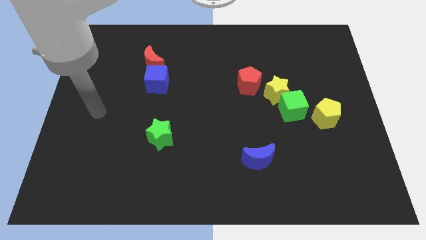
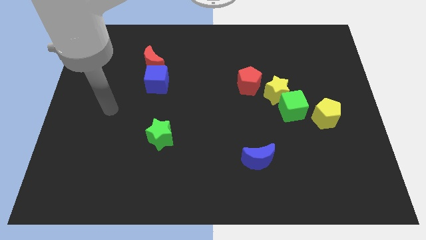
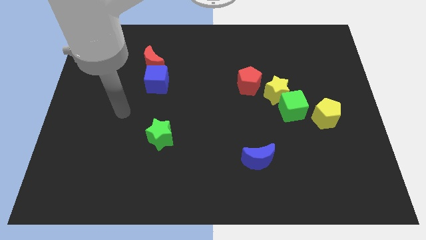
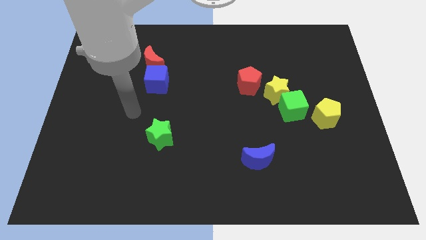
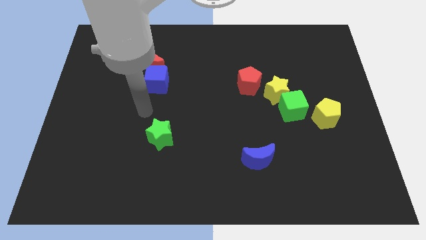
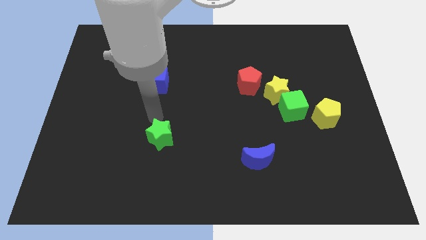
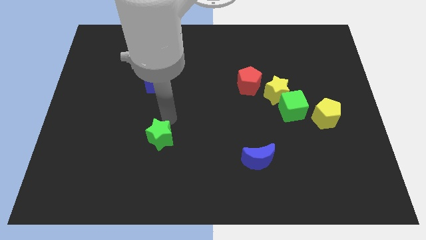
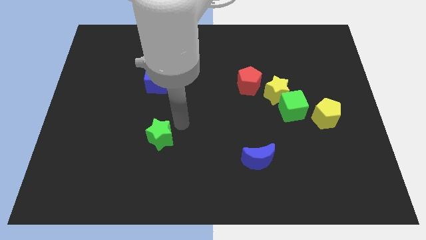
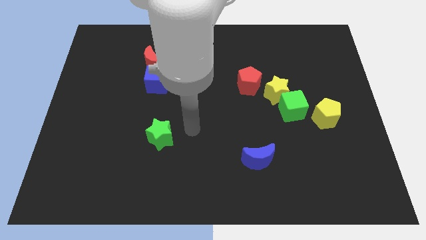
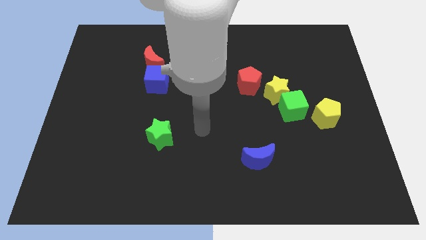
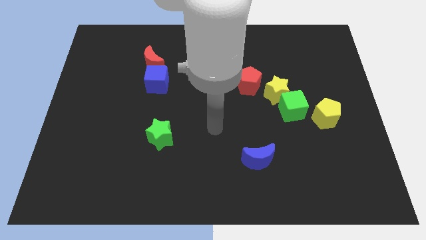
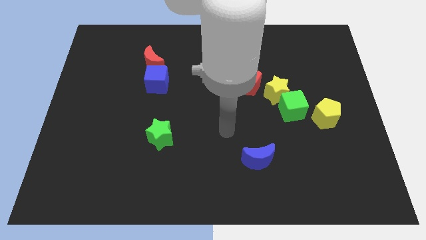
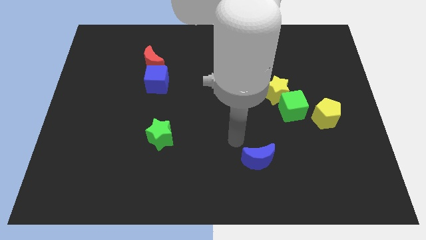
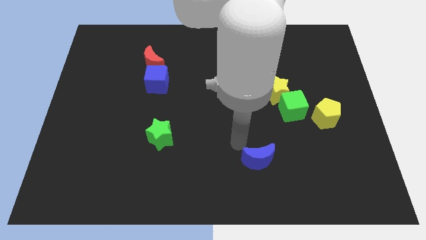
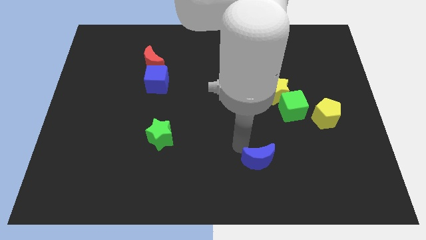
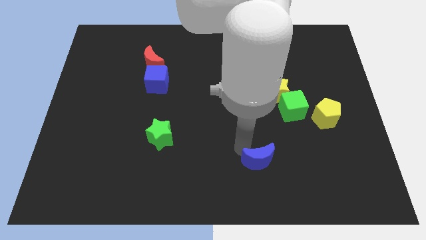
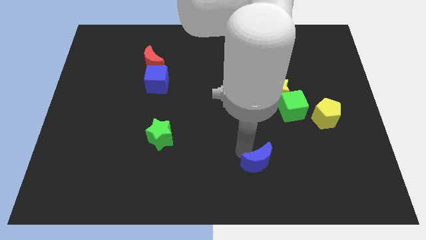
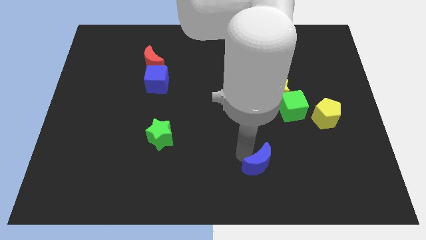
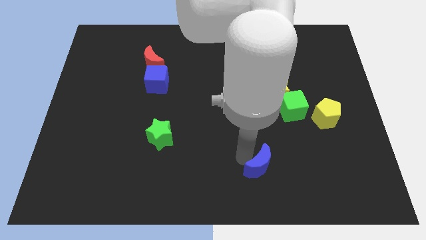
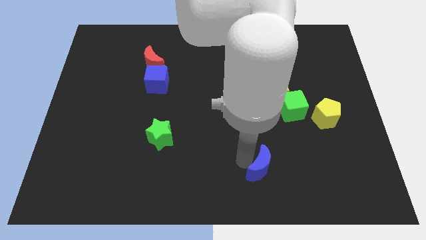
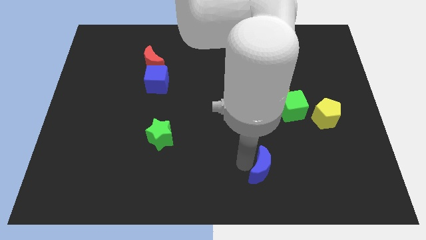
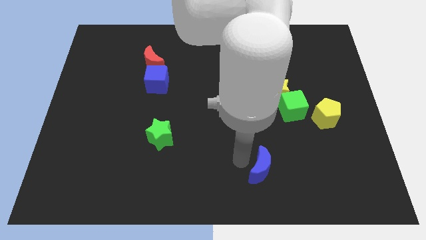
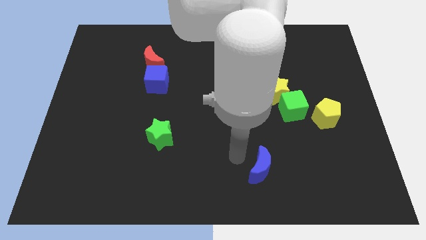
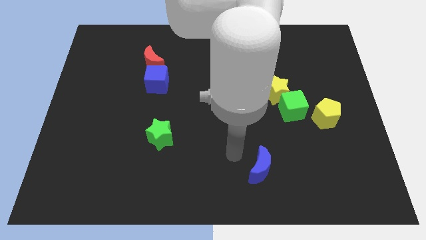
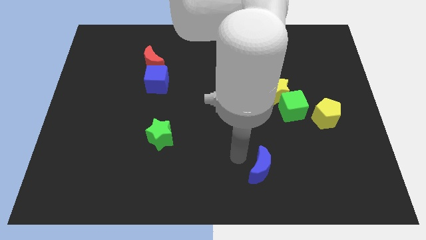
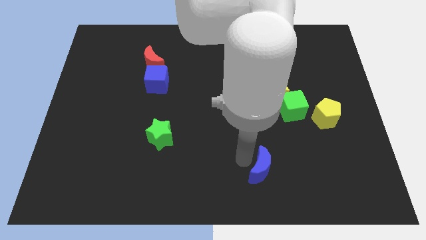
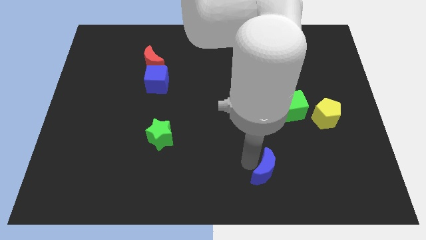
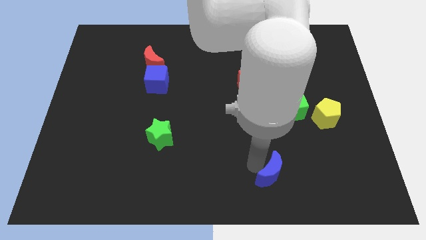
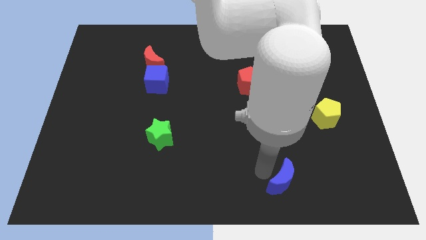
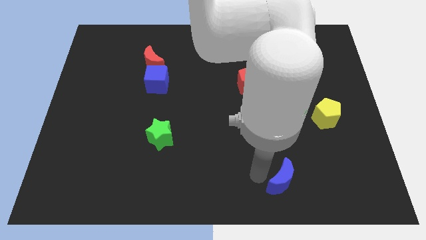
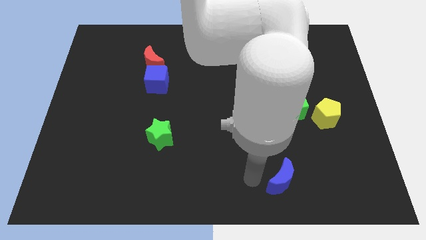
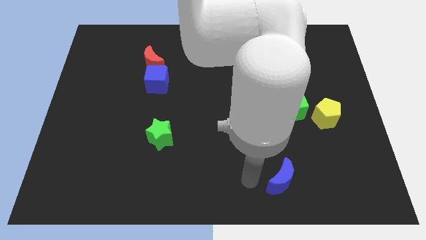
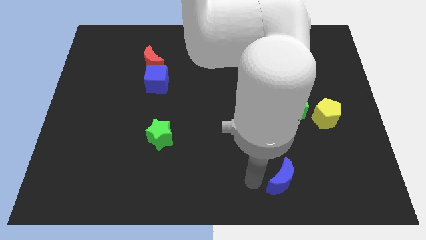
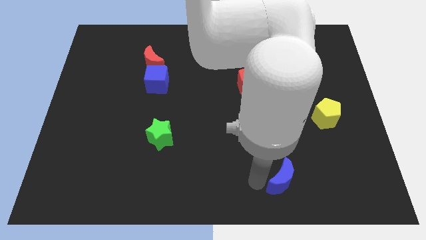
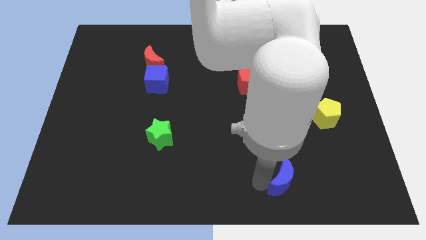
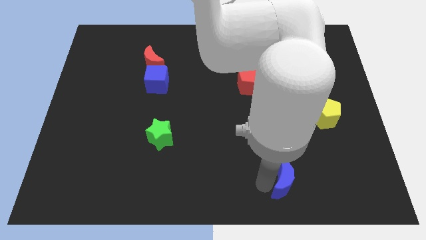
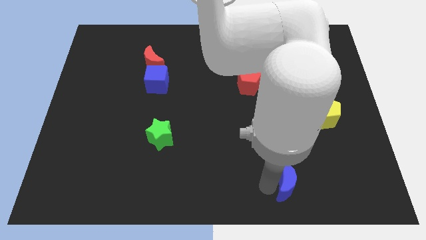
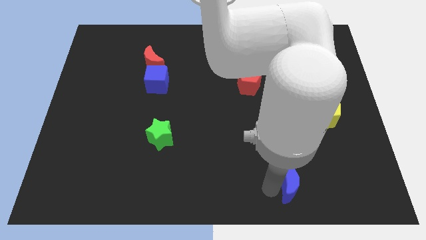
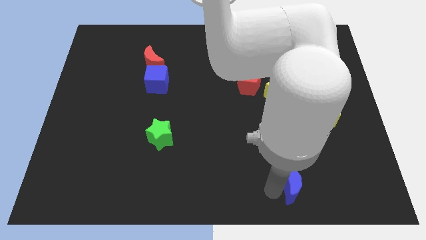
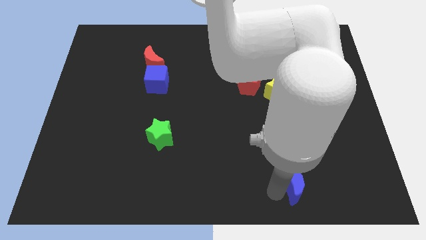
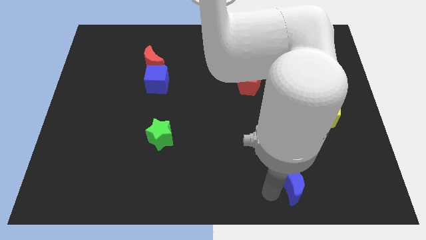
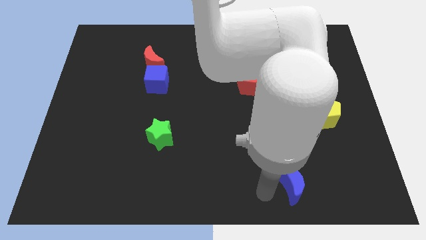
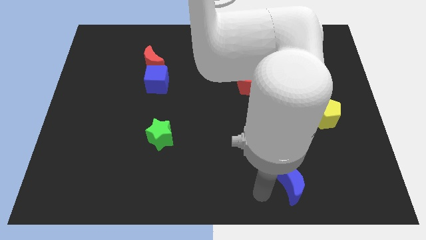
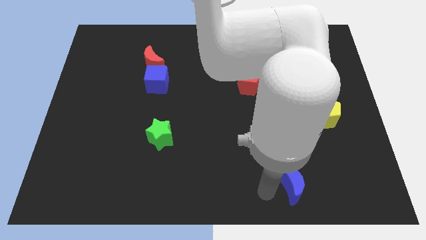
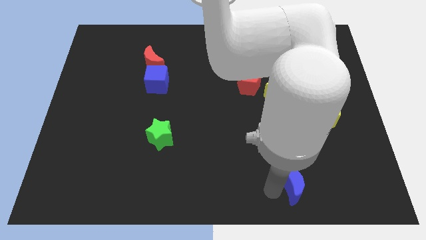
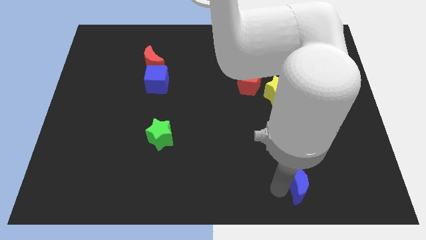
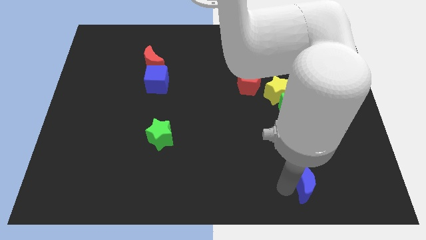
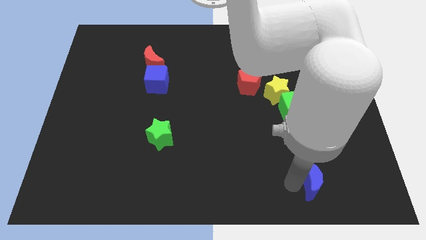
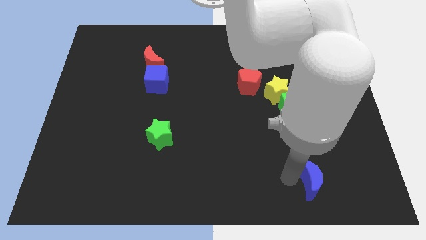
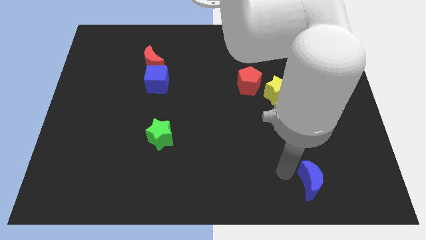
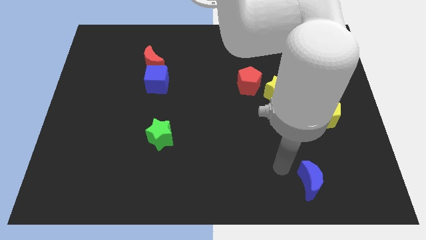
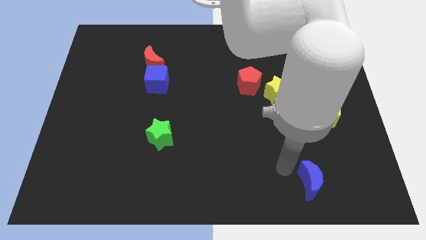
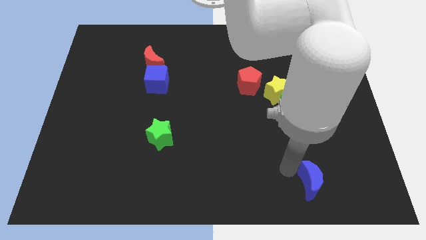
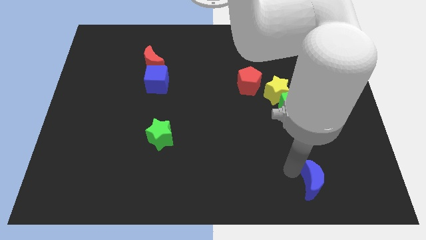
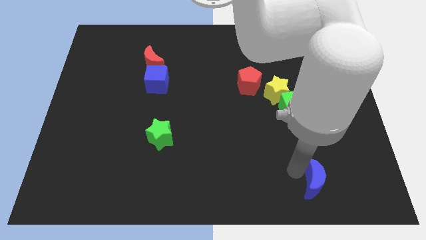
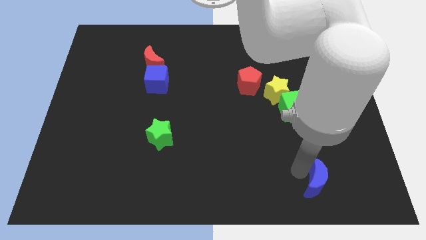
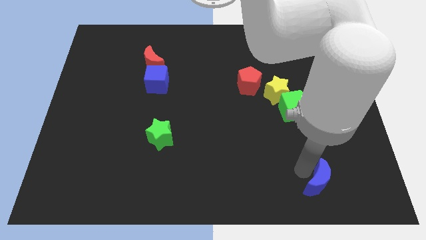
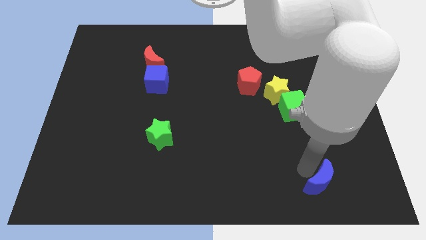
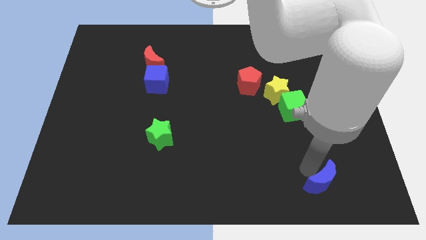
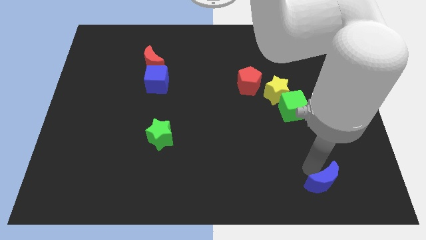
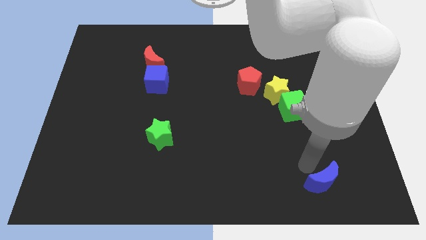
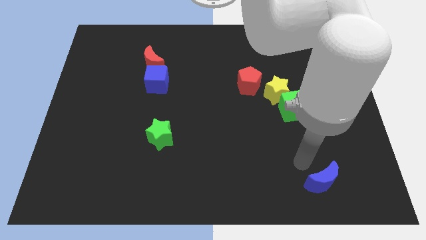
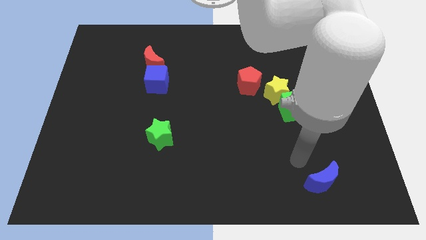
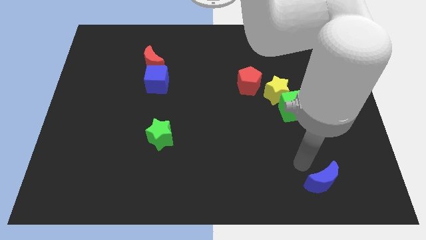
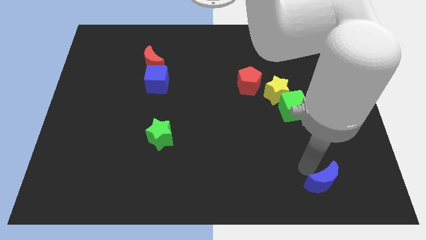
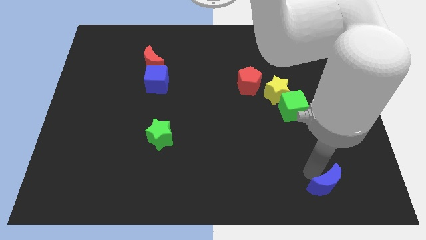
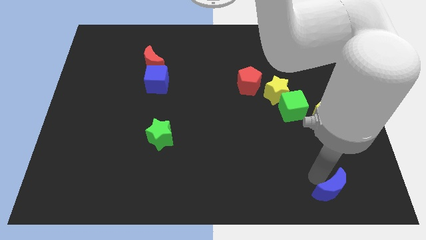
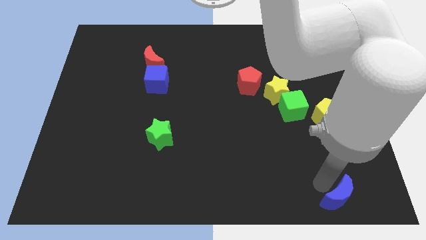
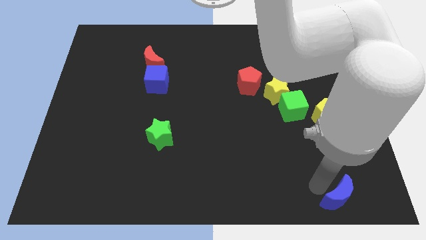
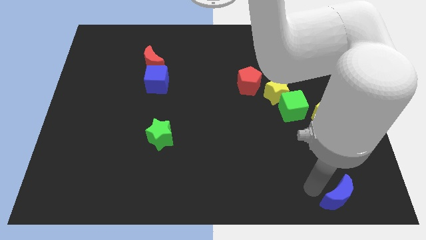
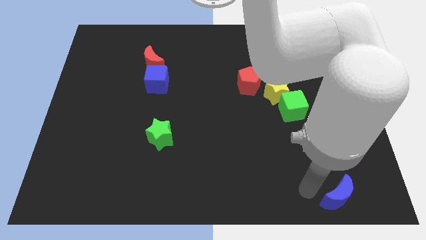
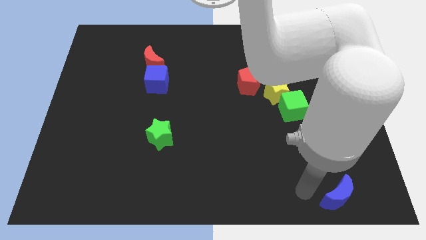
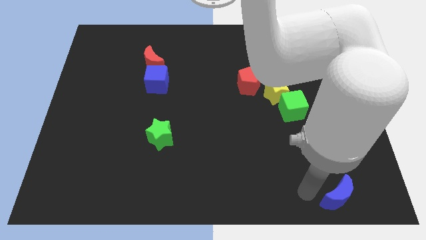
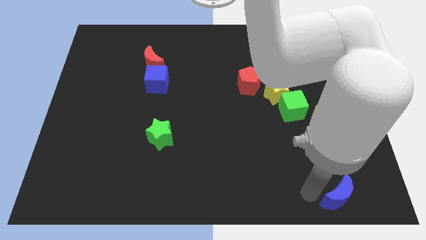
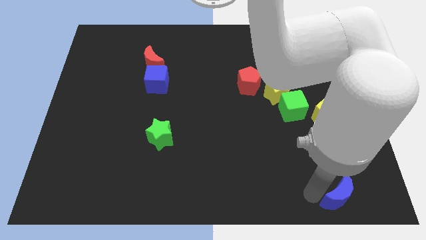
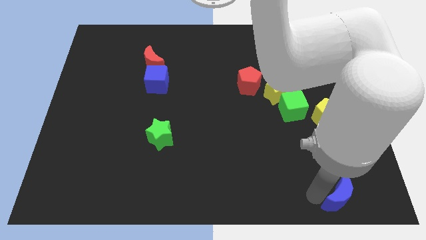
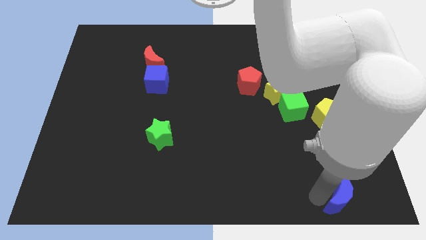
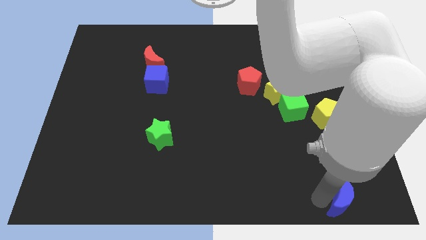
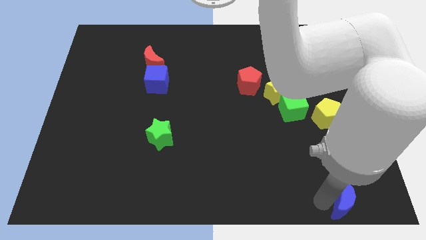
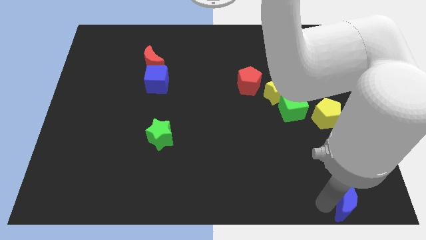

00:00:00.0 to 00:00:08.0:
move the blue moon to the bottom right of the board
